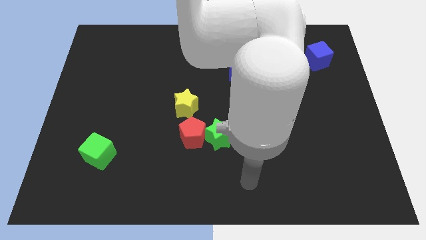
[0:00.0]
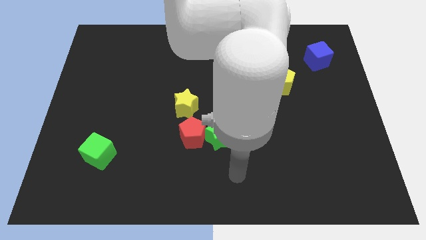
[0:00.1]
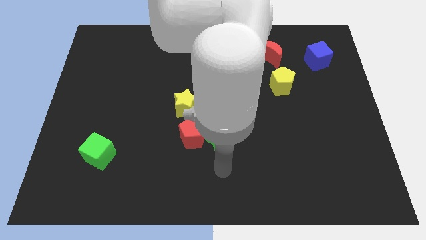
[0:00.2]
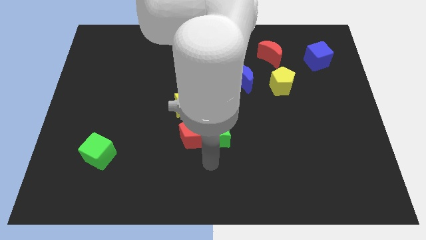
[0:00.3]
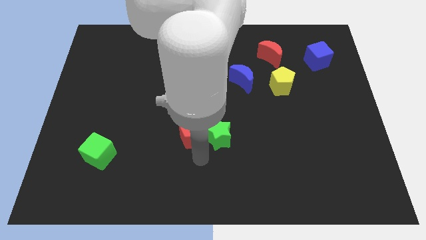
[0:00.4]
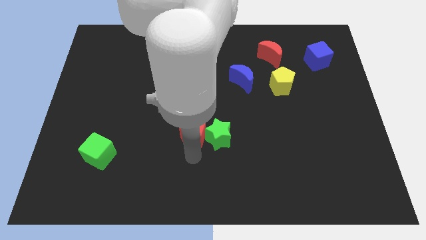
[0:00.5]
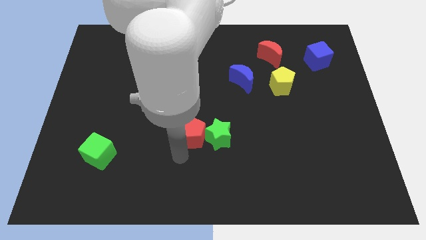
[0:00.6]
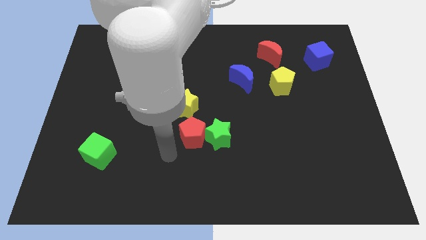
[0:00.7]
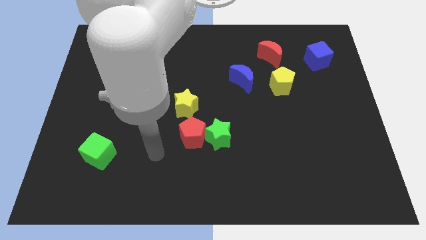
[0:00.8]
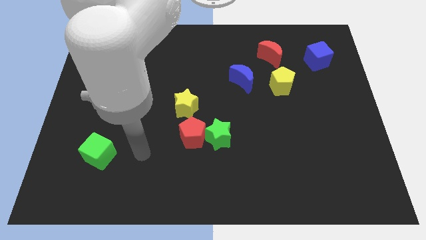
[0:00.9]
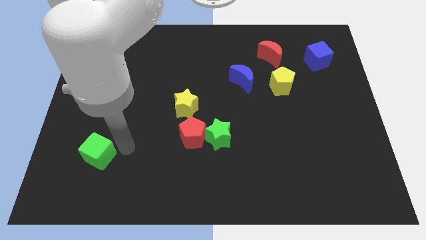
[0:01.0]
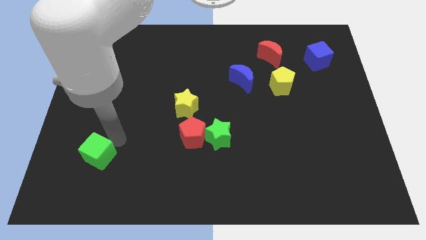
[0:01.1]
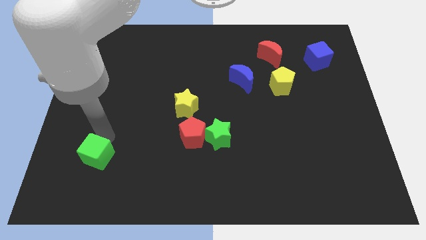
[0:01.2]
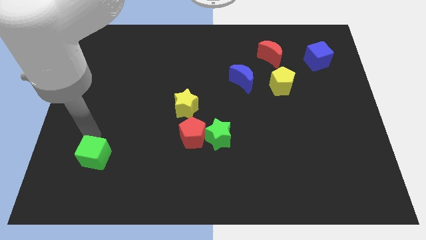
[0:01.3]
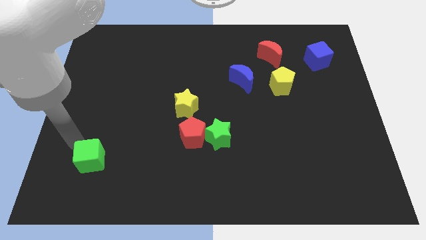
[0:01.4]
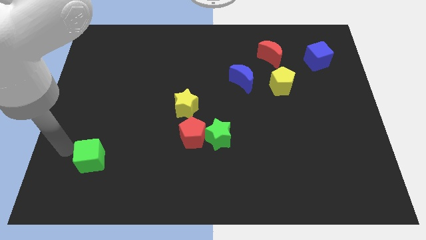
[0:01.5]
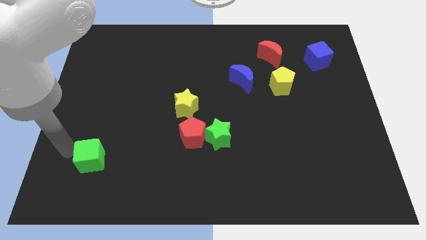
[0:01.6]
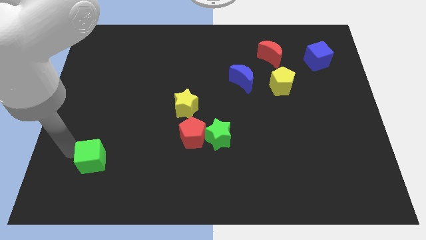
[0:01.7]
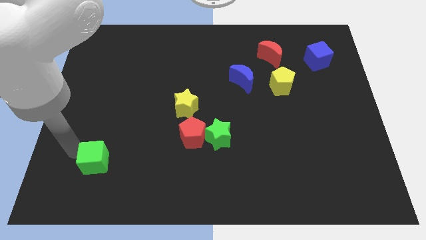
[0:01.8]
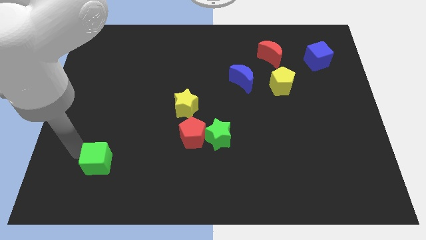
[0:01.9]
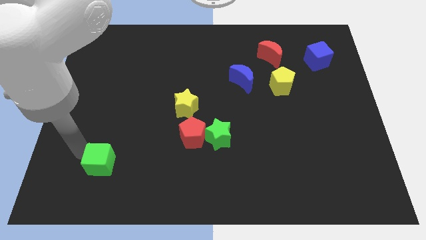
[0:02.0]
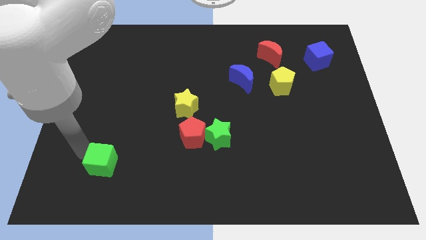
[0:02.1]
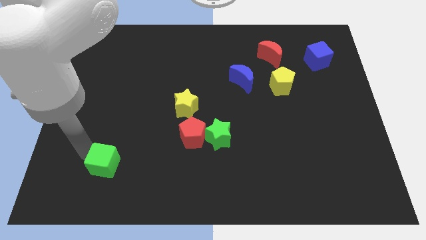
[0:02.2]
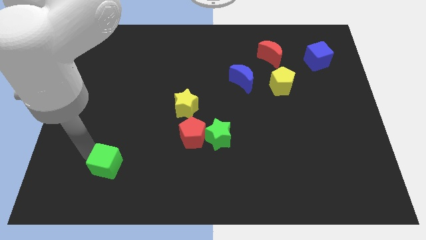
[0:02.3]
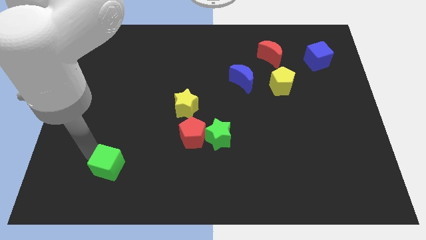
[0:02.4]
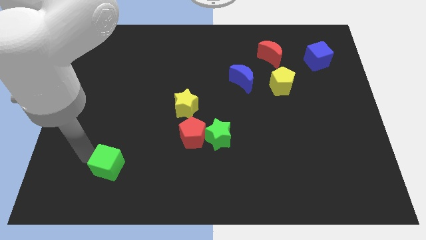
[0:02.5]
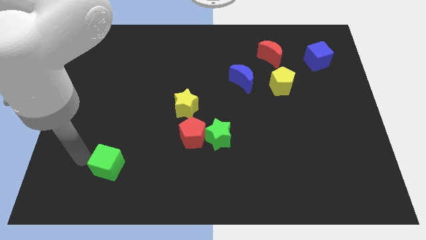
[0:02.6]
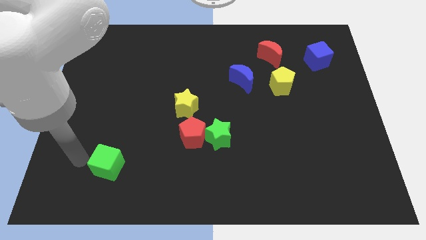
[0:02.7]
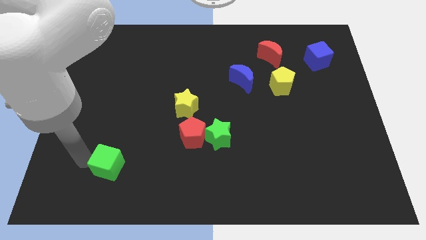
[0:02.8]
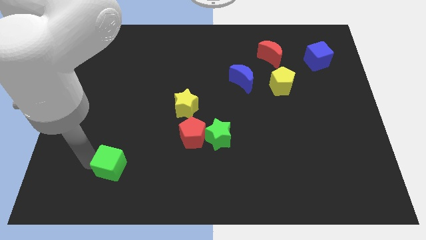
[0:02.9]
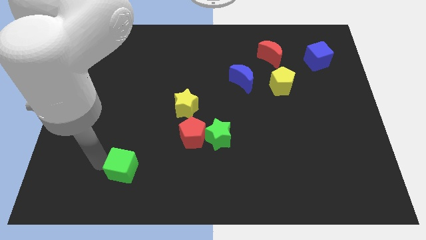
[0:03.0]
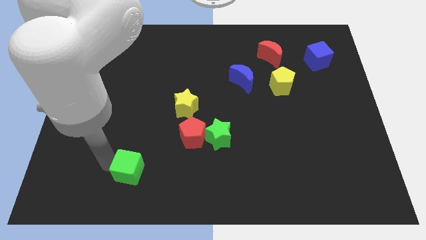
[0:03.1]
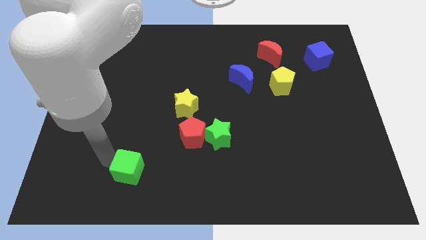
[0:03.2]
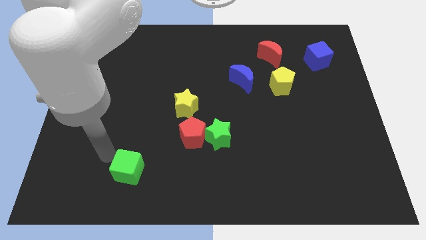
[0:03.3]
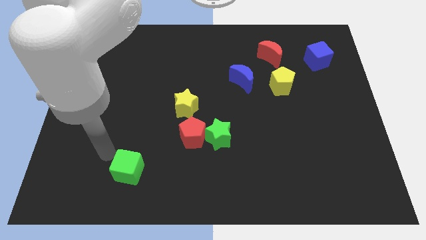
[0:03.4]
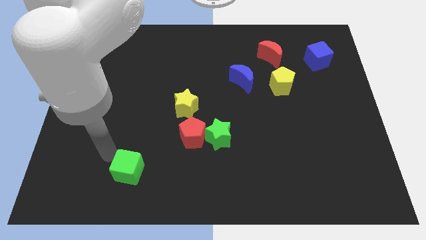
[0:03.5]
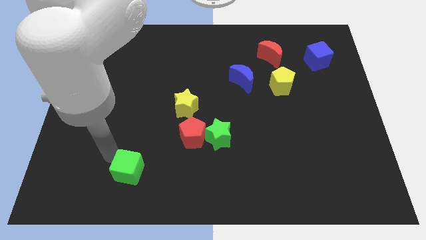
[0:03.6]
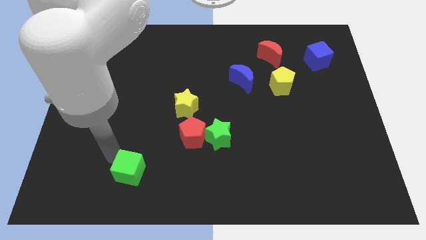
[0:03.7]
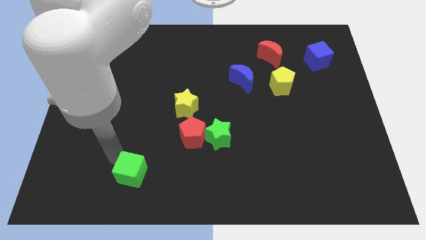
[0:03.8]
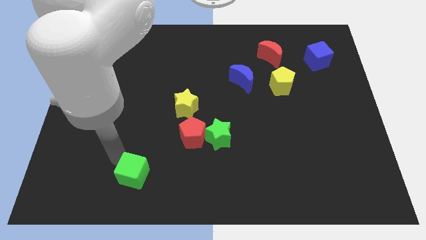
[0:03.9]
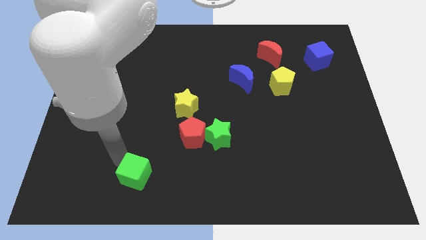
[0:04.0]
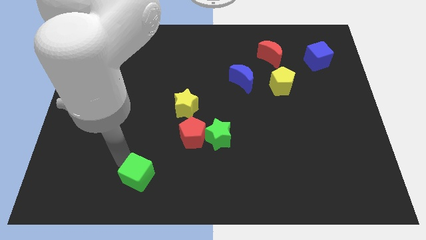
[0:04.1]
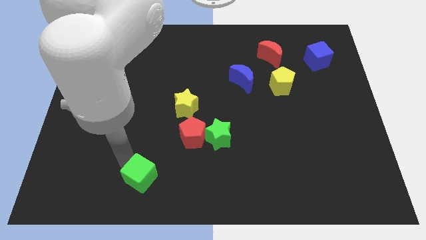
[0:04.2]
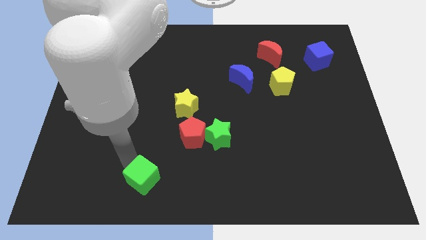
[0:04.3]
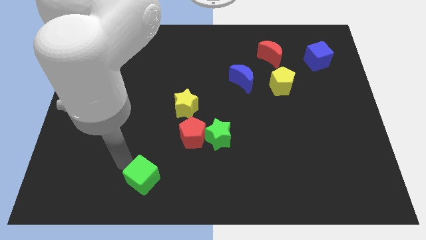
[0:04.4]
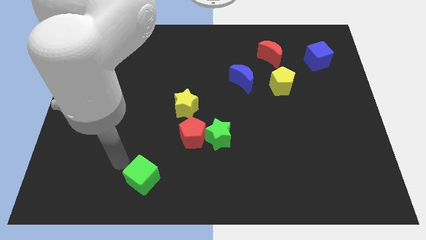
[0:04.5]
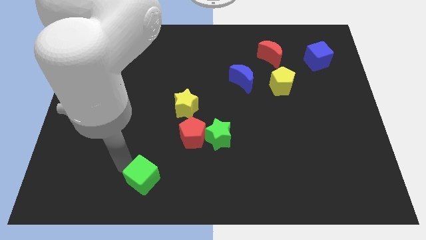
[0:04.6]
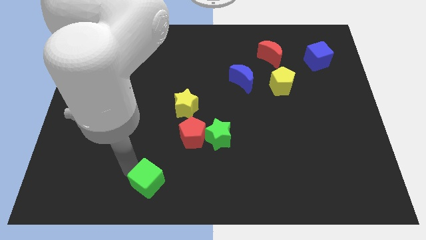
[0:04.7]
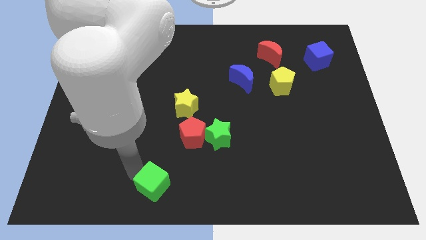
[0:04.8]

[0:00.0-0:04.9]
move the green cube to the bottom side

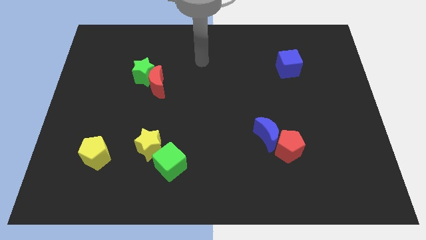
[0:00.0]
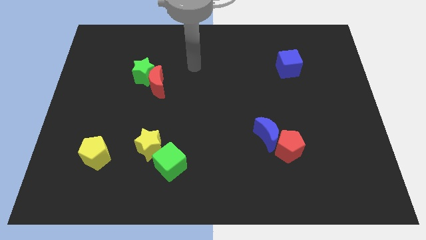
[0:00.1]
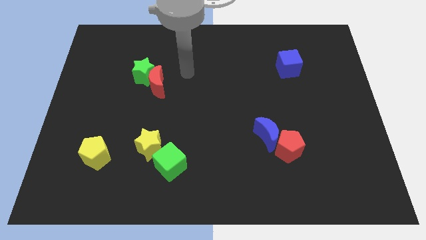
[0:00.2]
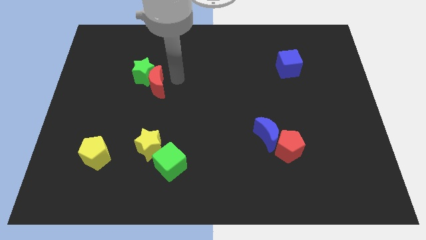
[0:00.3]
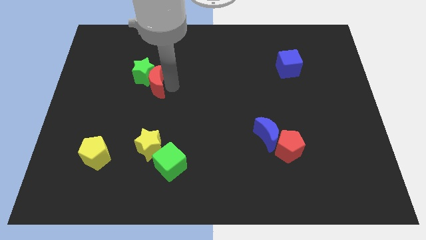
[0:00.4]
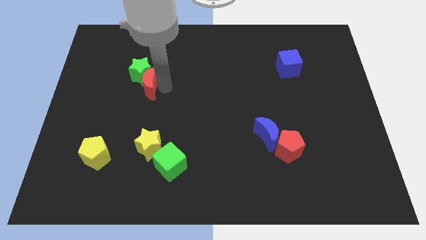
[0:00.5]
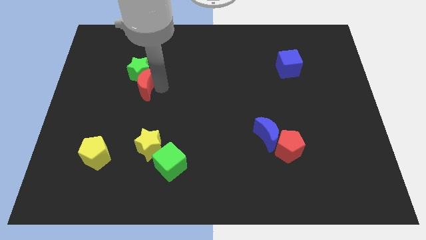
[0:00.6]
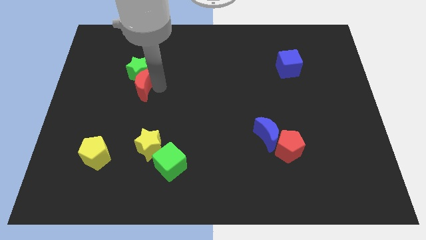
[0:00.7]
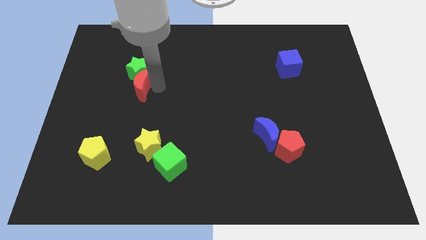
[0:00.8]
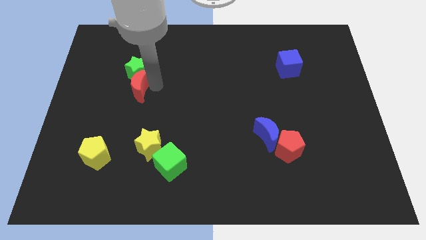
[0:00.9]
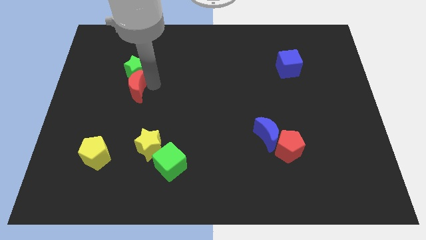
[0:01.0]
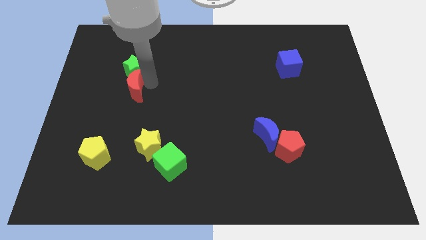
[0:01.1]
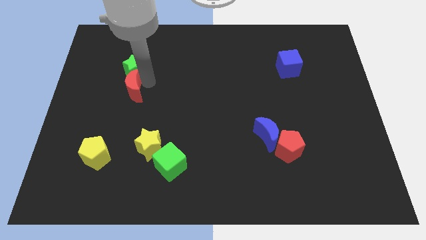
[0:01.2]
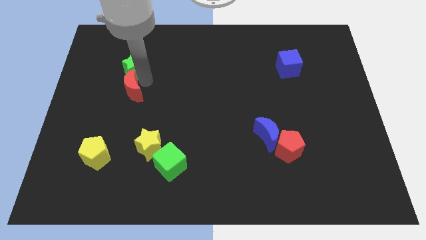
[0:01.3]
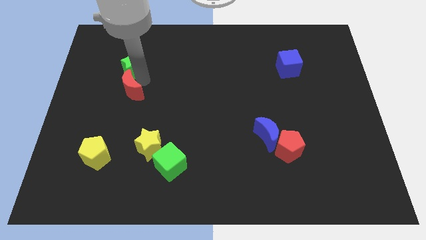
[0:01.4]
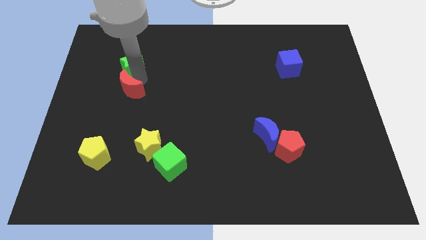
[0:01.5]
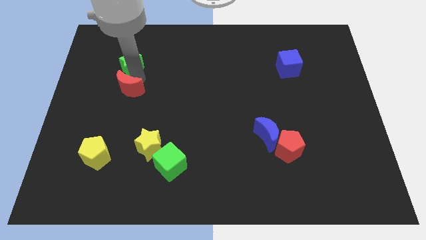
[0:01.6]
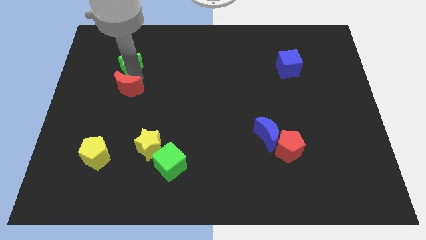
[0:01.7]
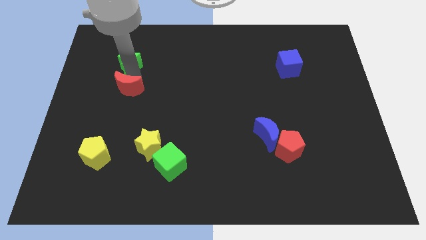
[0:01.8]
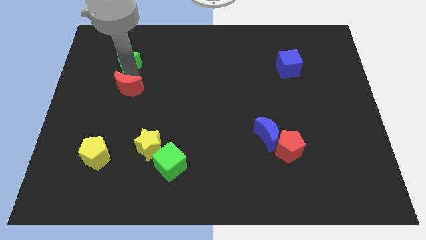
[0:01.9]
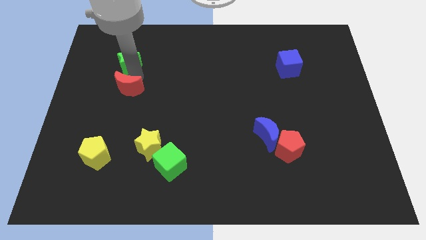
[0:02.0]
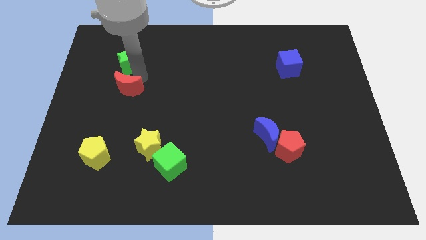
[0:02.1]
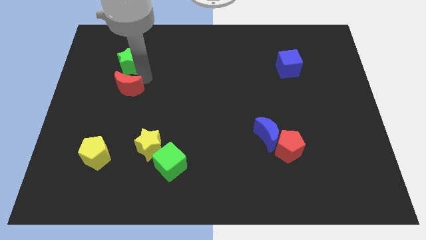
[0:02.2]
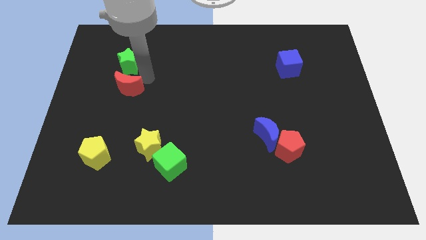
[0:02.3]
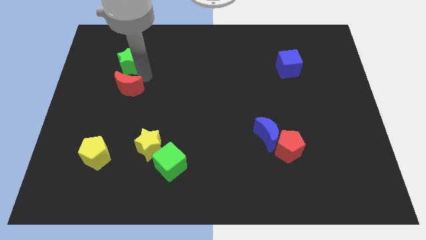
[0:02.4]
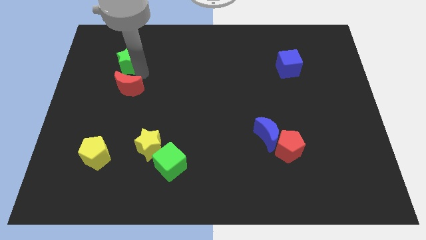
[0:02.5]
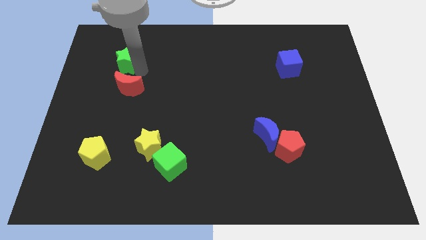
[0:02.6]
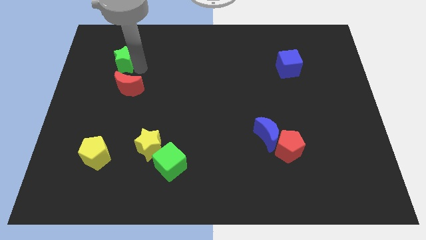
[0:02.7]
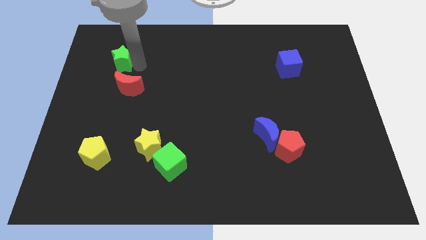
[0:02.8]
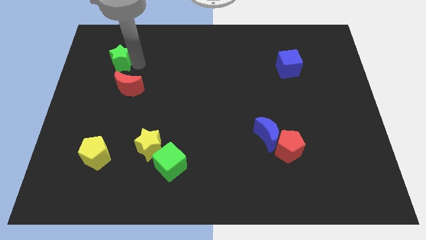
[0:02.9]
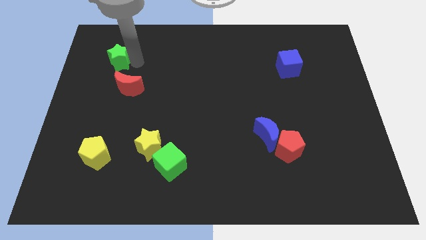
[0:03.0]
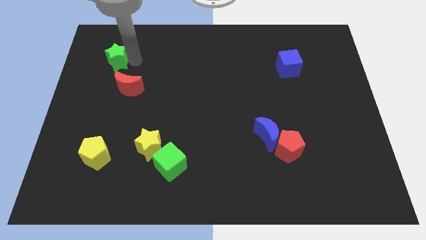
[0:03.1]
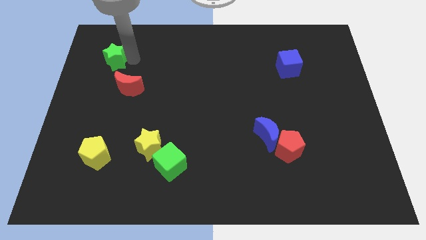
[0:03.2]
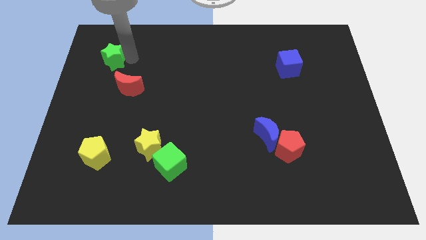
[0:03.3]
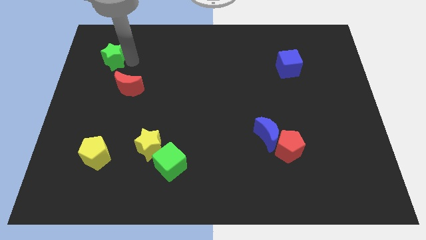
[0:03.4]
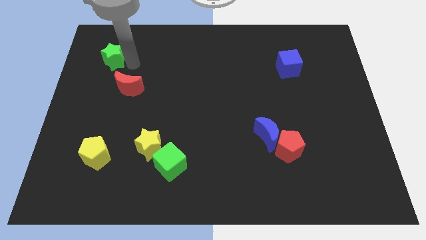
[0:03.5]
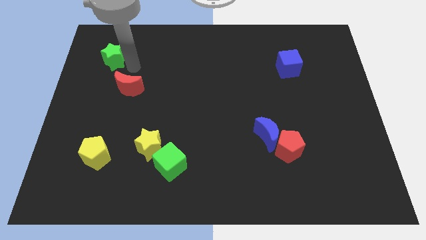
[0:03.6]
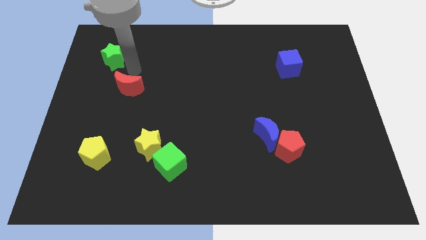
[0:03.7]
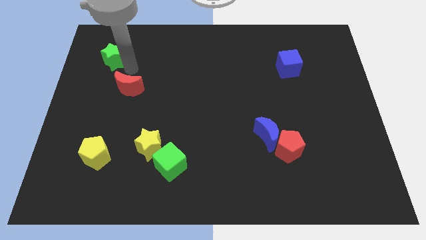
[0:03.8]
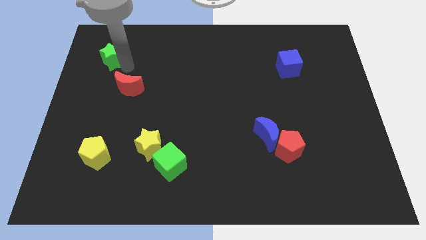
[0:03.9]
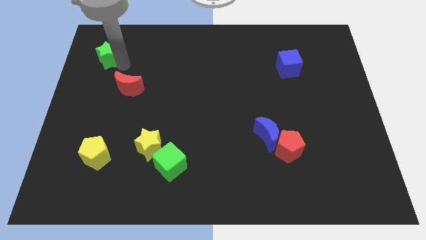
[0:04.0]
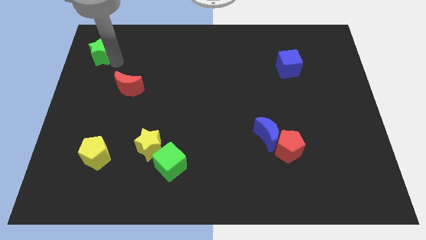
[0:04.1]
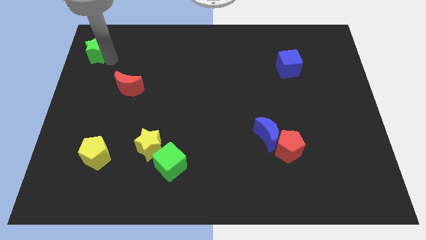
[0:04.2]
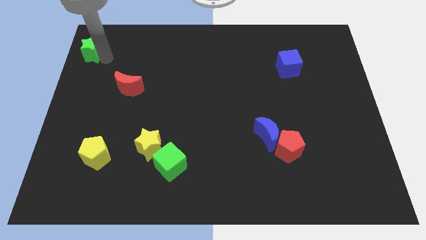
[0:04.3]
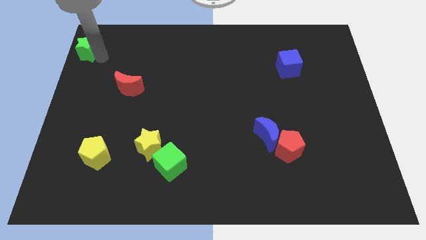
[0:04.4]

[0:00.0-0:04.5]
move the green star to the top left corner
